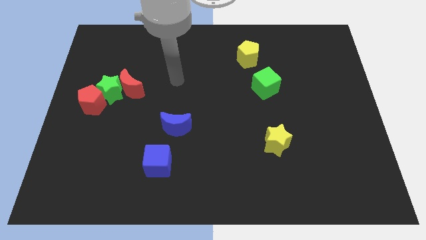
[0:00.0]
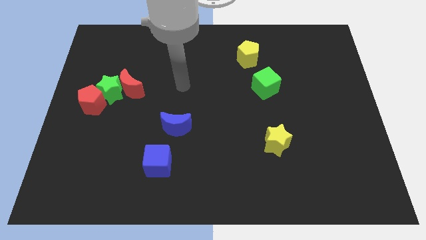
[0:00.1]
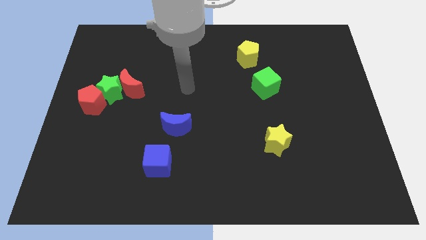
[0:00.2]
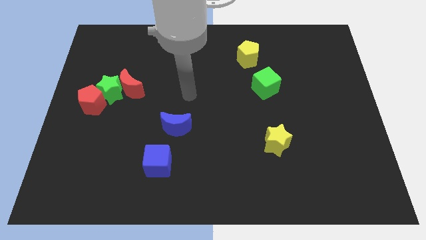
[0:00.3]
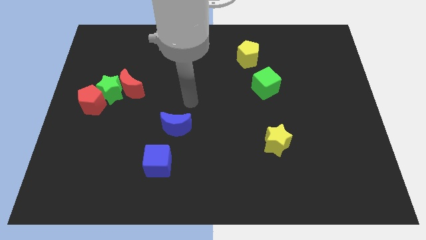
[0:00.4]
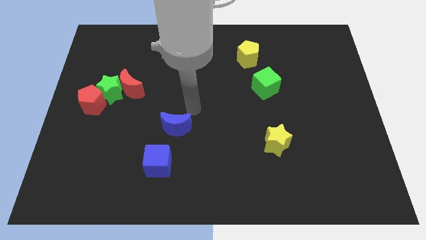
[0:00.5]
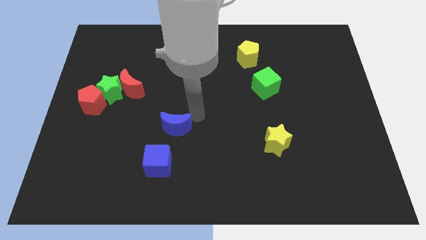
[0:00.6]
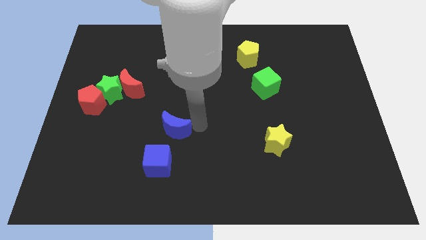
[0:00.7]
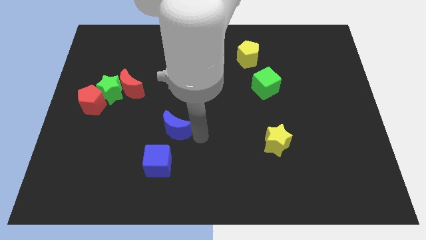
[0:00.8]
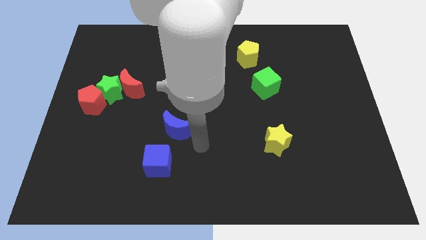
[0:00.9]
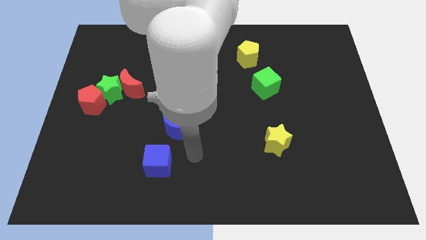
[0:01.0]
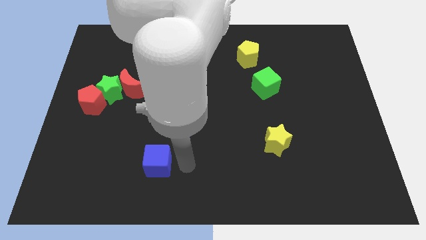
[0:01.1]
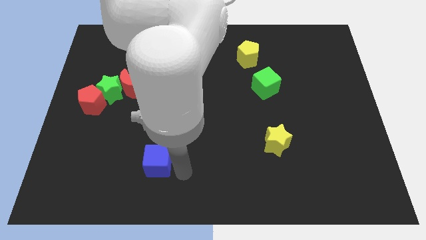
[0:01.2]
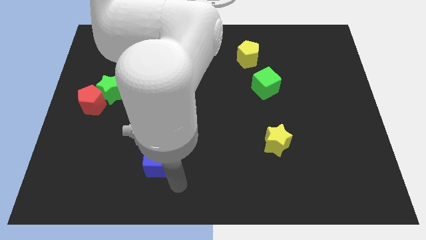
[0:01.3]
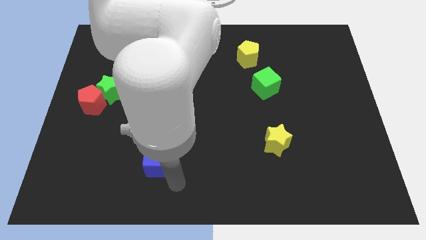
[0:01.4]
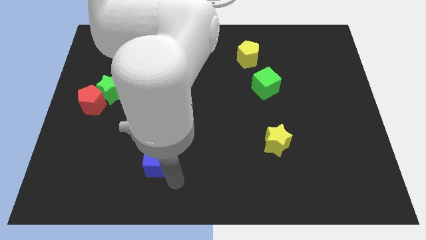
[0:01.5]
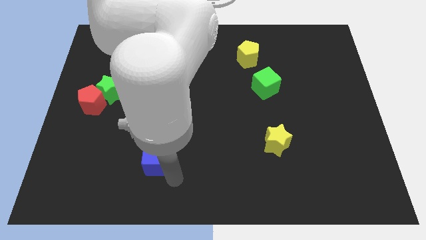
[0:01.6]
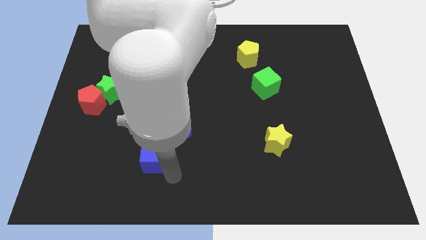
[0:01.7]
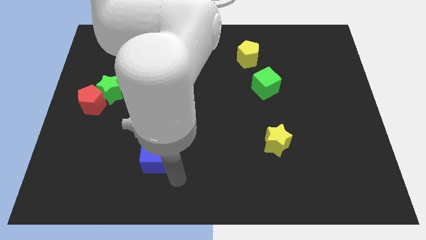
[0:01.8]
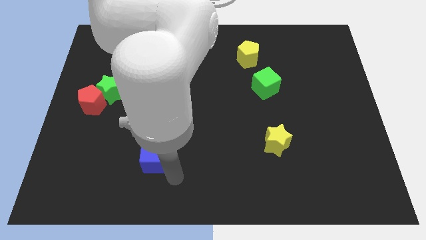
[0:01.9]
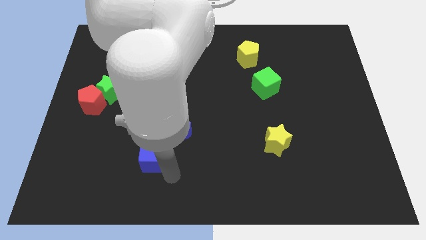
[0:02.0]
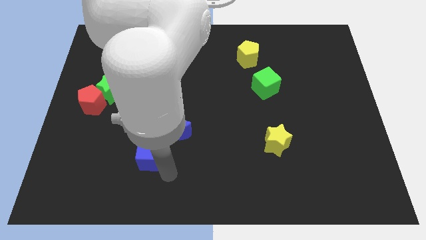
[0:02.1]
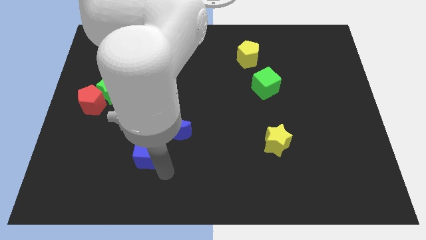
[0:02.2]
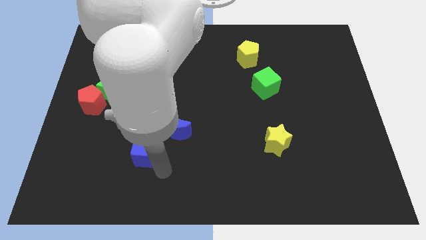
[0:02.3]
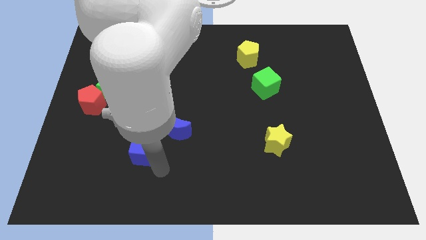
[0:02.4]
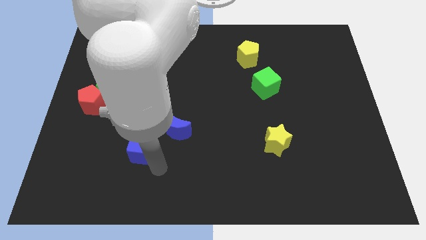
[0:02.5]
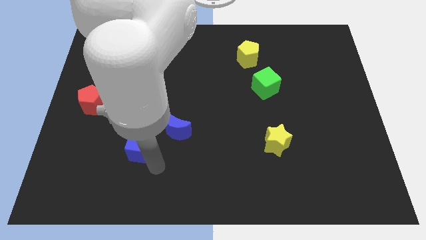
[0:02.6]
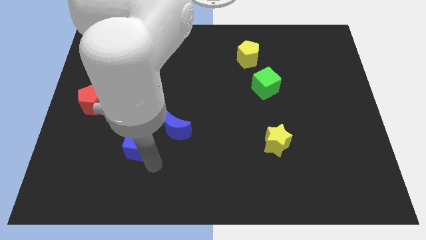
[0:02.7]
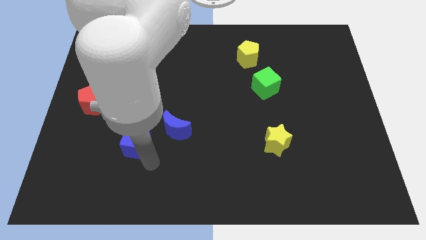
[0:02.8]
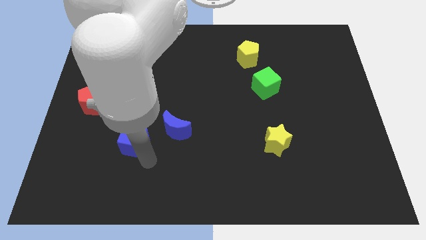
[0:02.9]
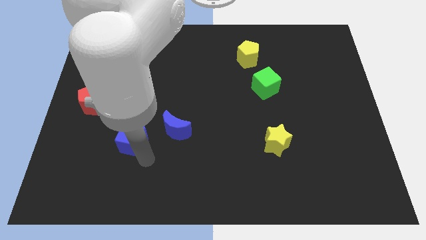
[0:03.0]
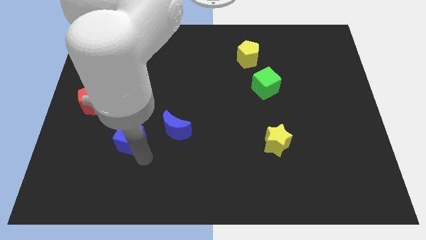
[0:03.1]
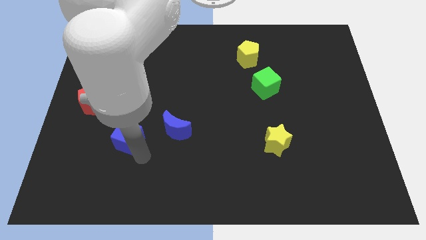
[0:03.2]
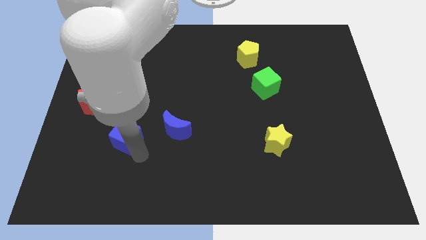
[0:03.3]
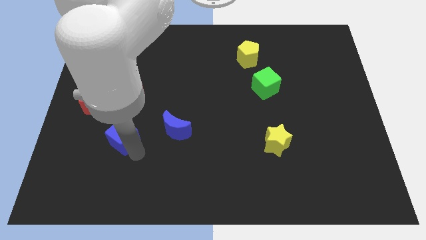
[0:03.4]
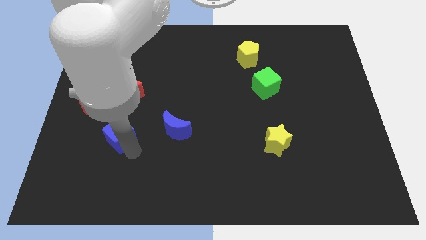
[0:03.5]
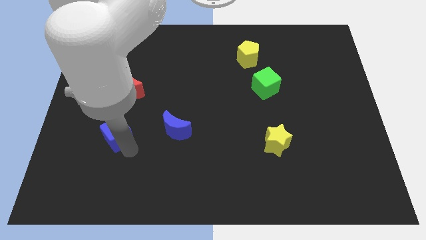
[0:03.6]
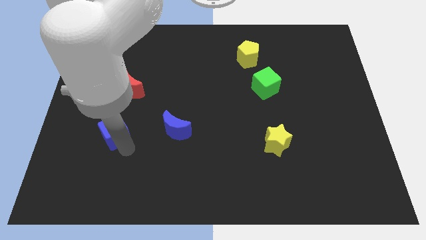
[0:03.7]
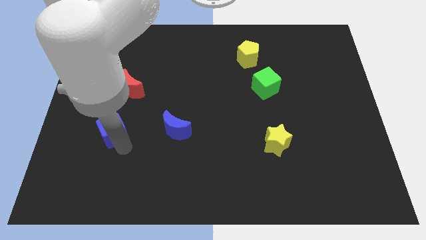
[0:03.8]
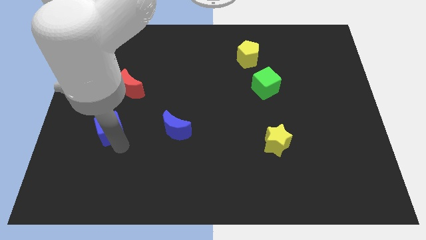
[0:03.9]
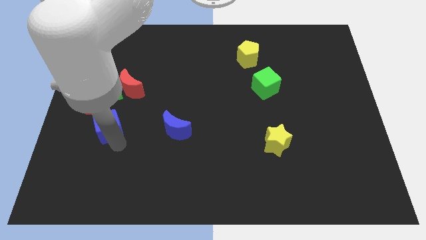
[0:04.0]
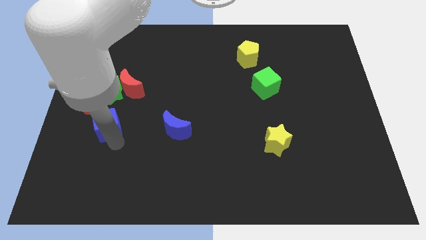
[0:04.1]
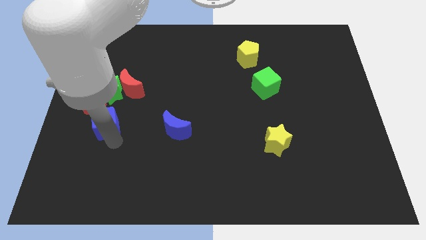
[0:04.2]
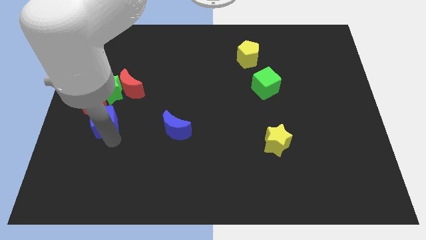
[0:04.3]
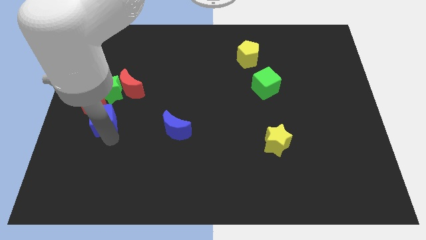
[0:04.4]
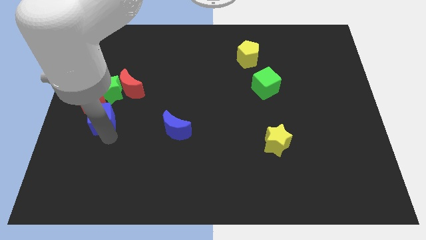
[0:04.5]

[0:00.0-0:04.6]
push the blue cube towards the red pentagon

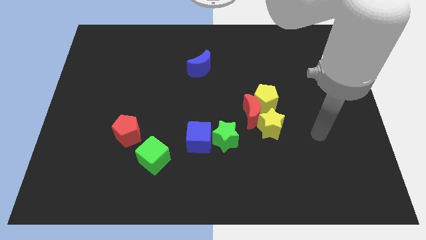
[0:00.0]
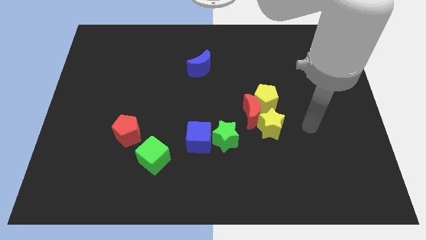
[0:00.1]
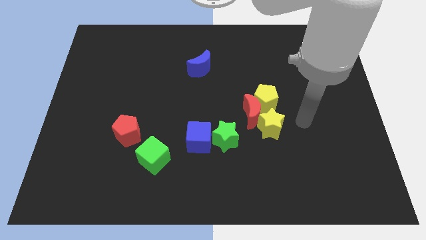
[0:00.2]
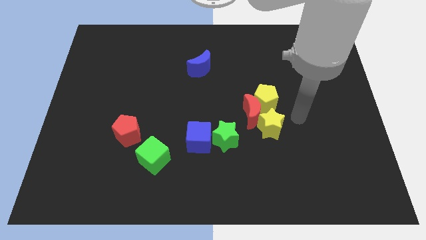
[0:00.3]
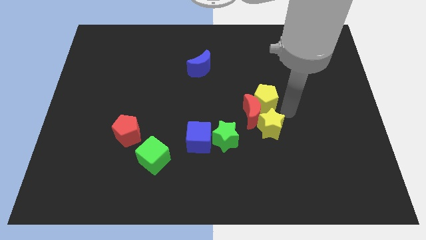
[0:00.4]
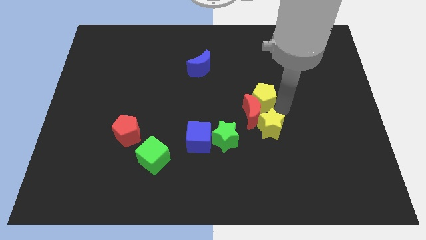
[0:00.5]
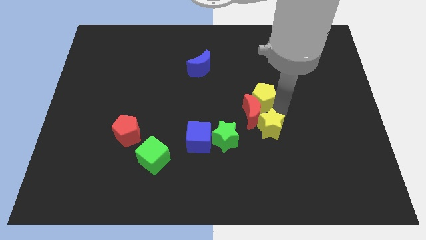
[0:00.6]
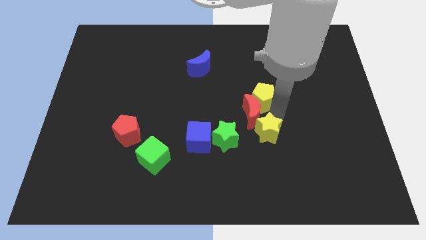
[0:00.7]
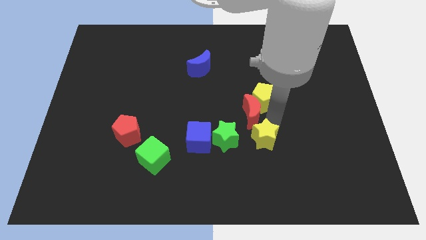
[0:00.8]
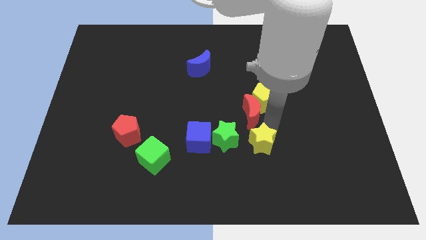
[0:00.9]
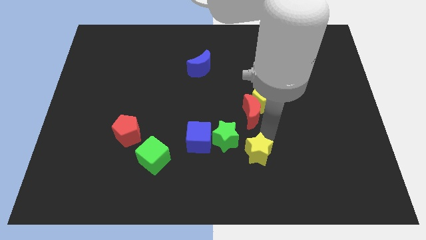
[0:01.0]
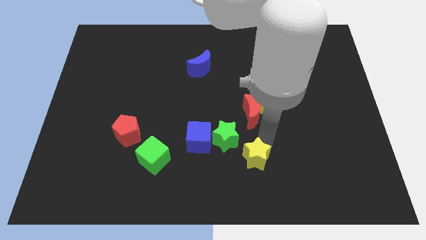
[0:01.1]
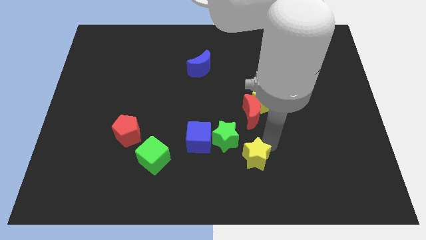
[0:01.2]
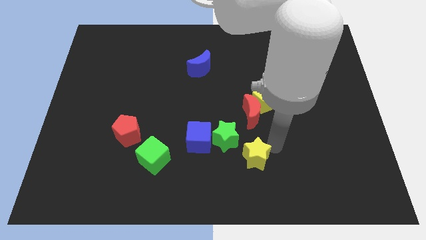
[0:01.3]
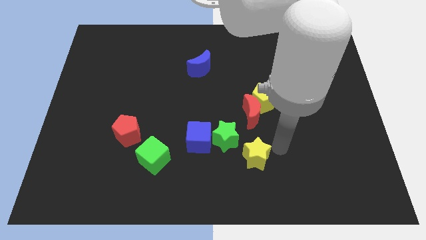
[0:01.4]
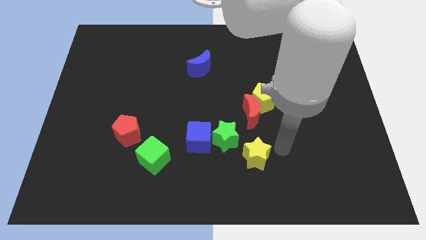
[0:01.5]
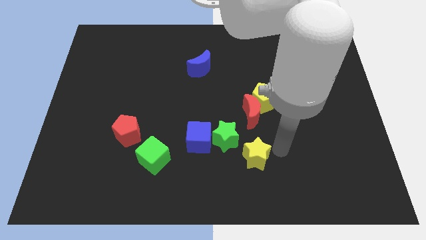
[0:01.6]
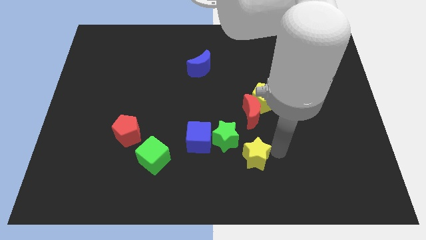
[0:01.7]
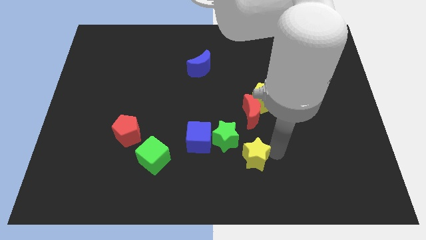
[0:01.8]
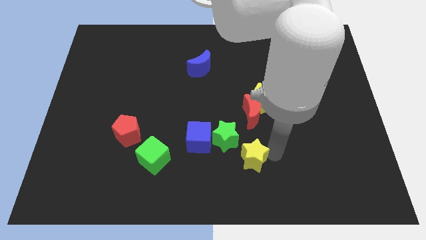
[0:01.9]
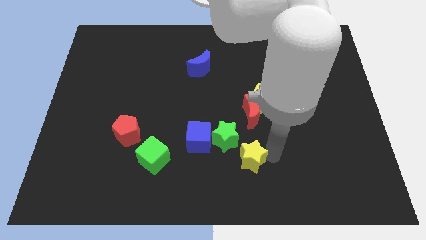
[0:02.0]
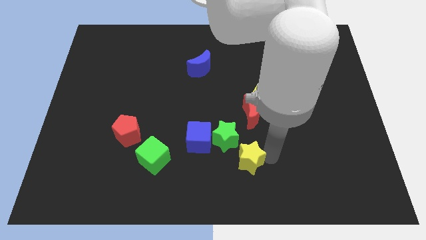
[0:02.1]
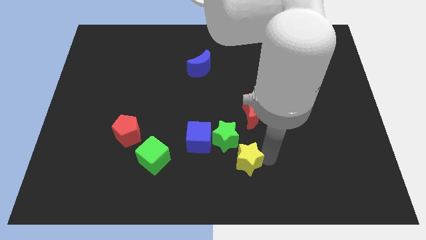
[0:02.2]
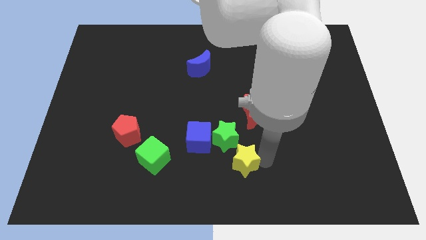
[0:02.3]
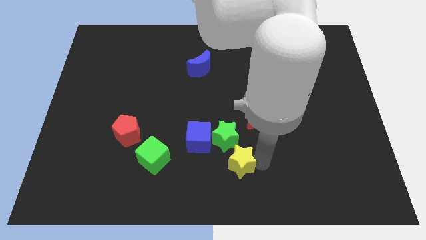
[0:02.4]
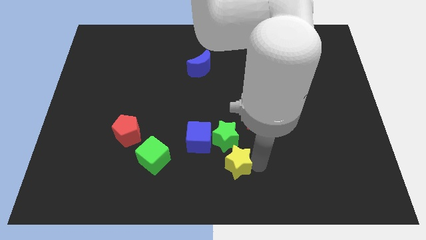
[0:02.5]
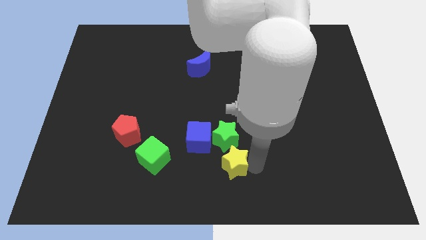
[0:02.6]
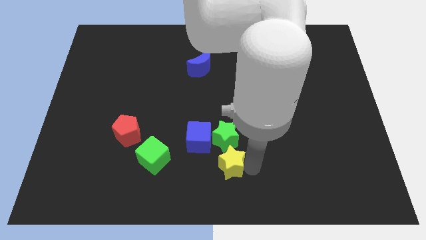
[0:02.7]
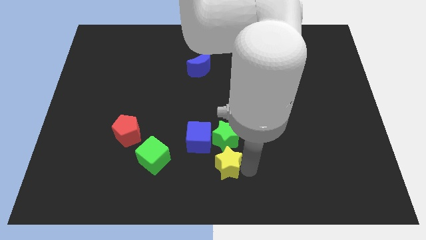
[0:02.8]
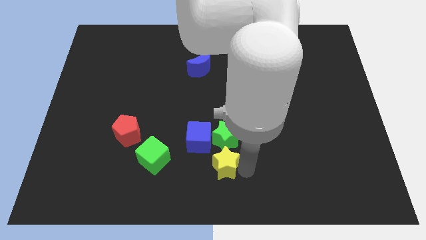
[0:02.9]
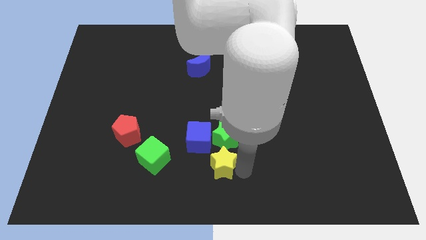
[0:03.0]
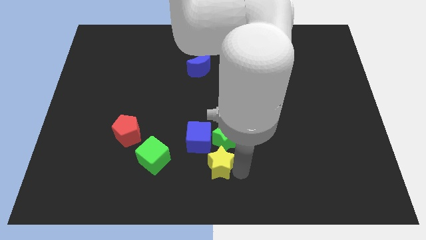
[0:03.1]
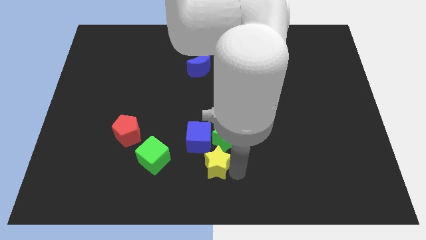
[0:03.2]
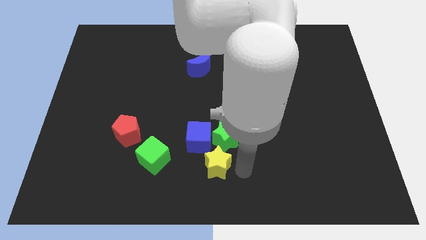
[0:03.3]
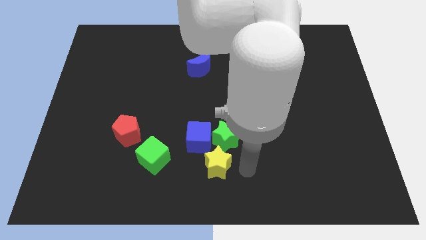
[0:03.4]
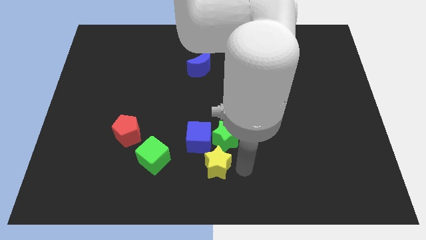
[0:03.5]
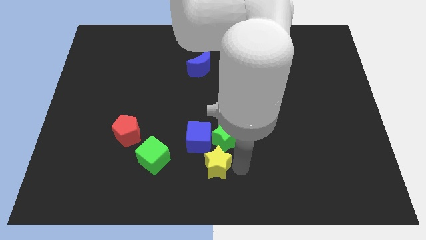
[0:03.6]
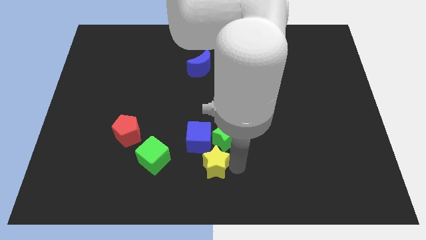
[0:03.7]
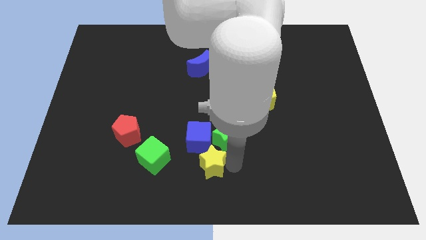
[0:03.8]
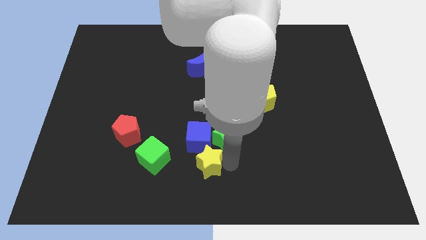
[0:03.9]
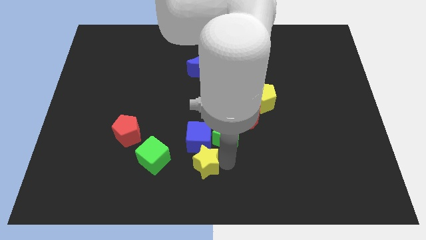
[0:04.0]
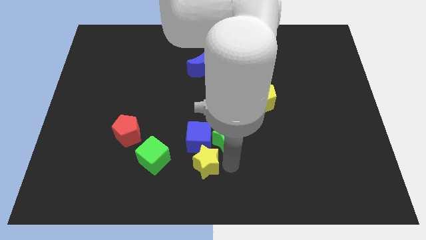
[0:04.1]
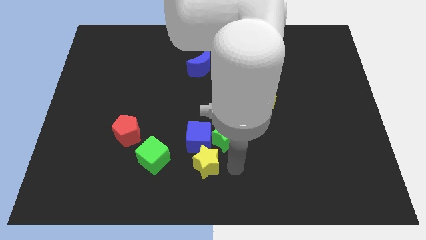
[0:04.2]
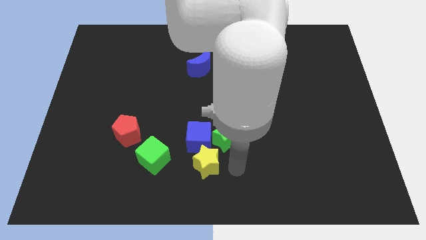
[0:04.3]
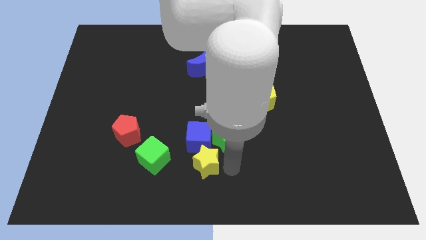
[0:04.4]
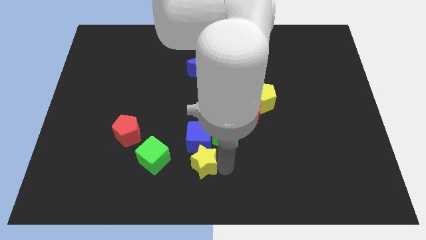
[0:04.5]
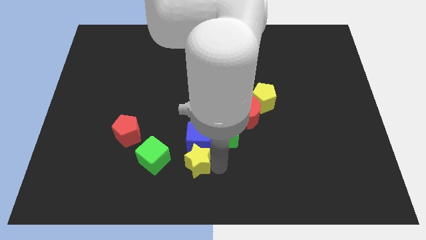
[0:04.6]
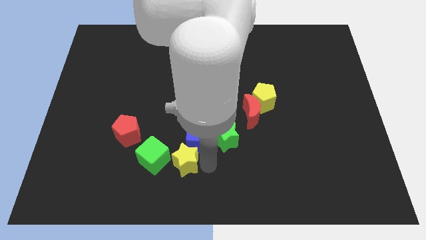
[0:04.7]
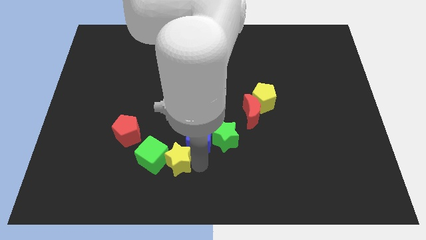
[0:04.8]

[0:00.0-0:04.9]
move the yellow star close to the green cube
